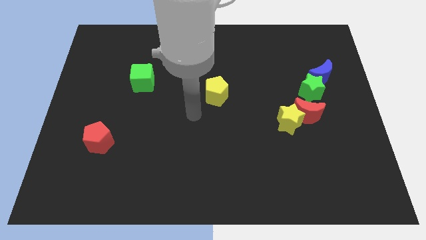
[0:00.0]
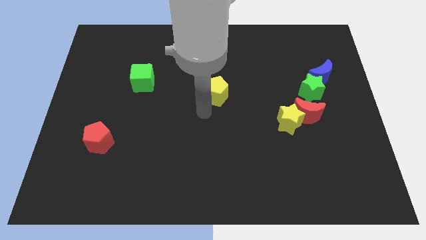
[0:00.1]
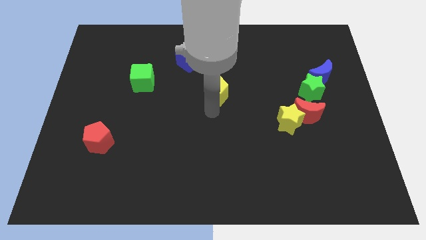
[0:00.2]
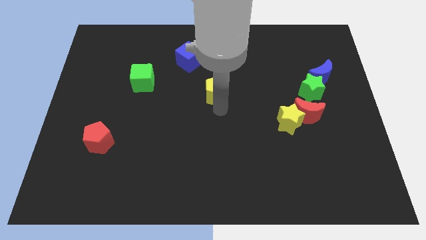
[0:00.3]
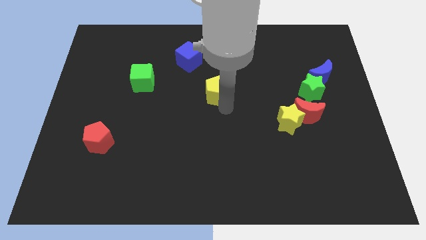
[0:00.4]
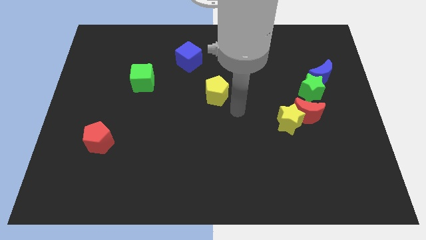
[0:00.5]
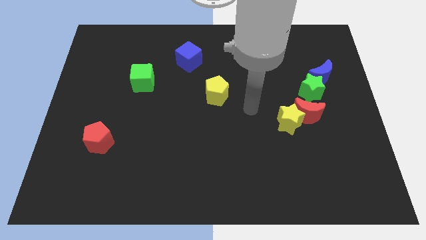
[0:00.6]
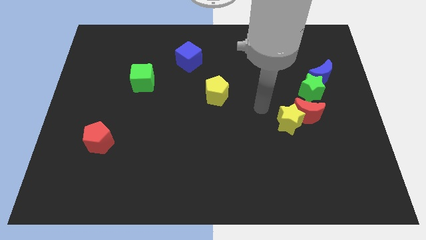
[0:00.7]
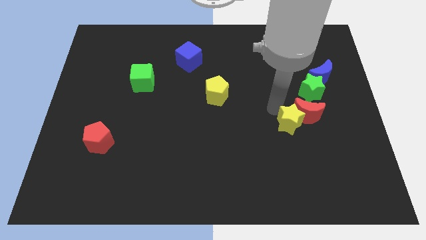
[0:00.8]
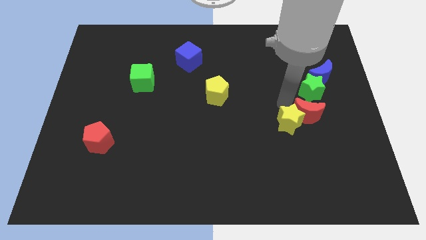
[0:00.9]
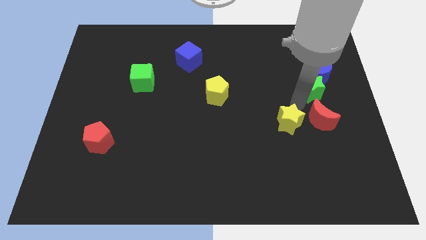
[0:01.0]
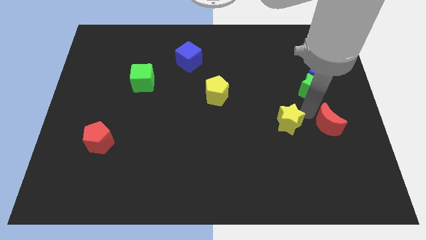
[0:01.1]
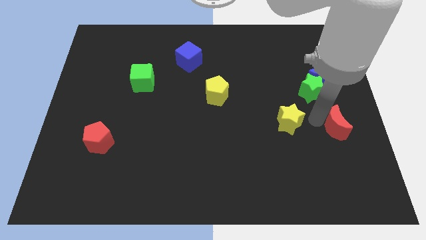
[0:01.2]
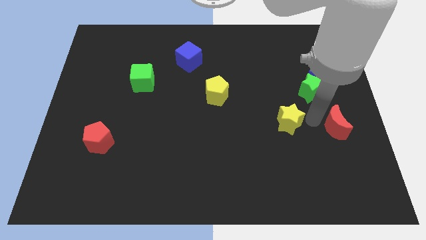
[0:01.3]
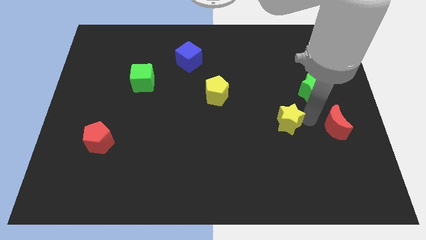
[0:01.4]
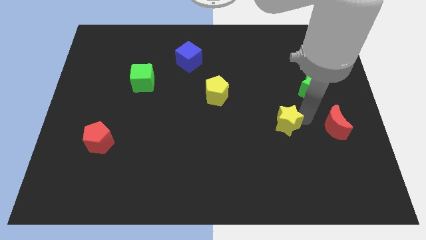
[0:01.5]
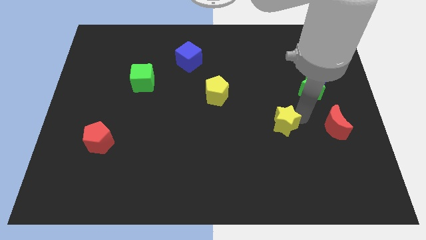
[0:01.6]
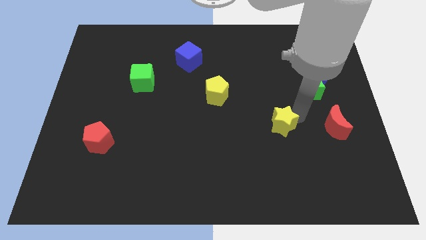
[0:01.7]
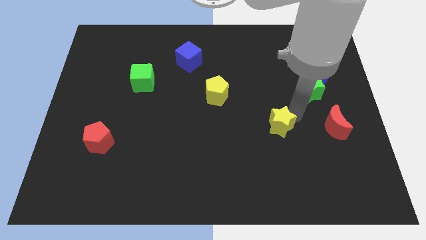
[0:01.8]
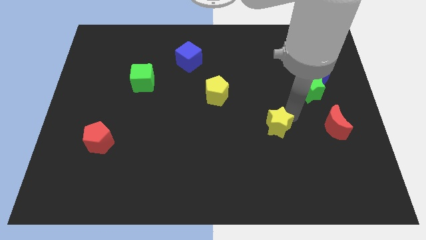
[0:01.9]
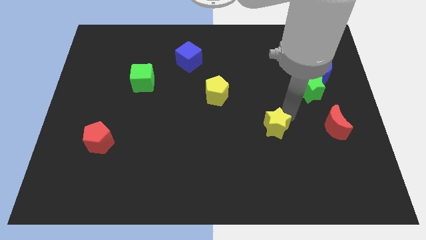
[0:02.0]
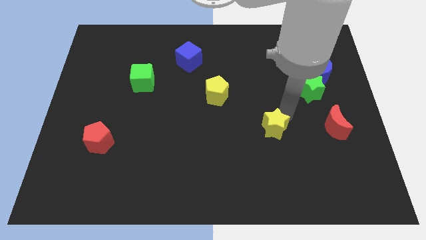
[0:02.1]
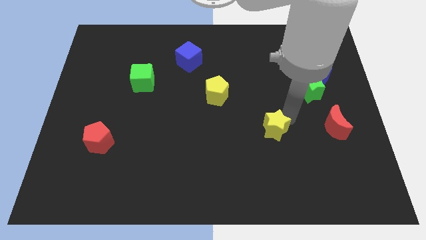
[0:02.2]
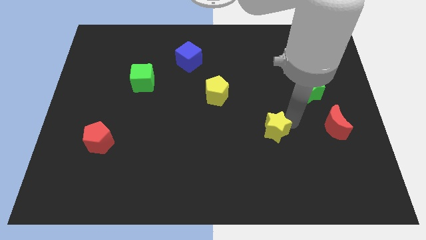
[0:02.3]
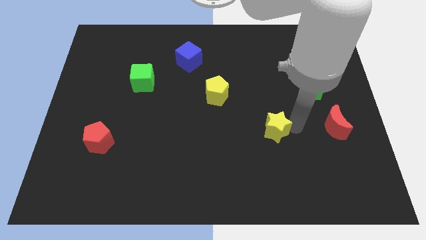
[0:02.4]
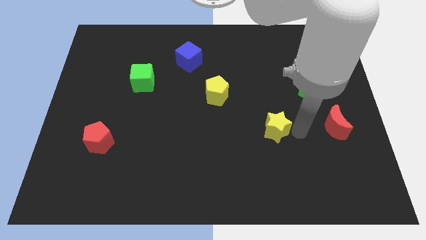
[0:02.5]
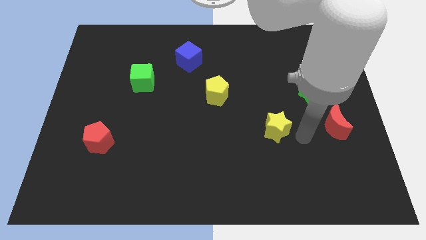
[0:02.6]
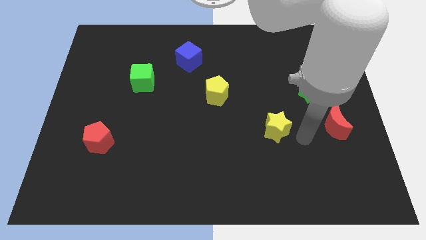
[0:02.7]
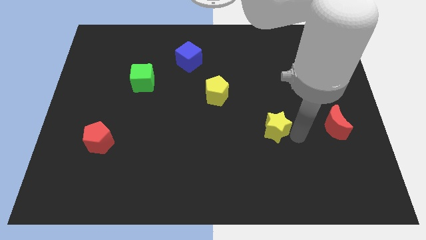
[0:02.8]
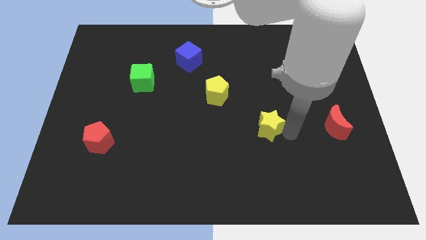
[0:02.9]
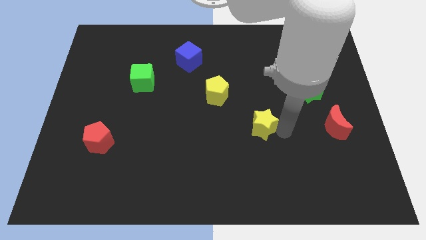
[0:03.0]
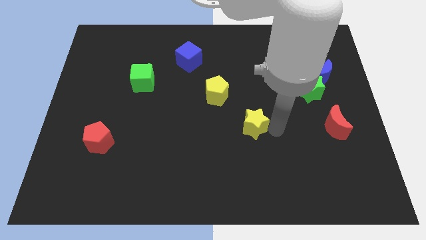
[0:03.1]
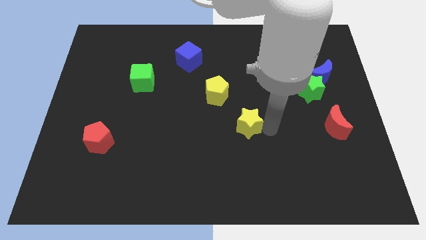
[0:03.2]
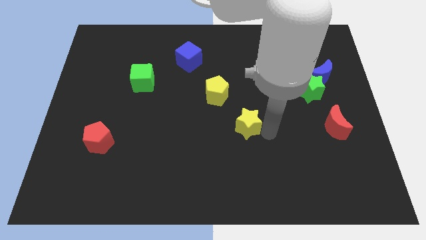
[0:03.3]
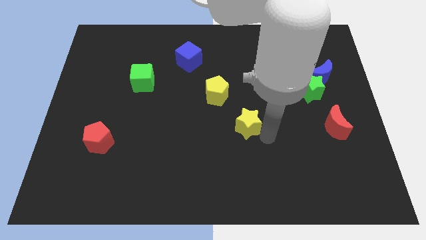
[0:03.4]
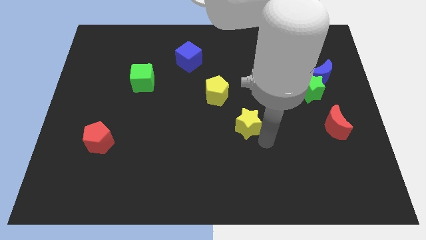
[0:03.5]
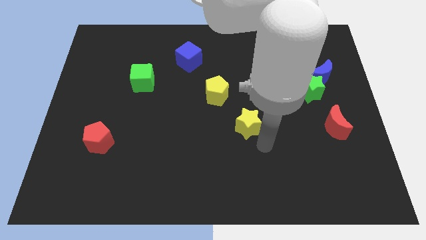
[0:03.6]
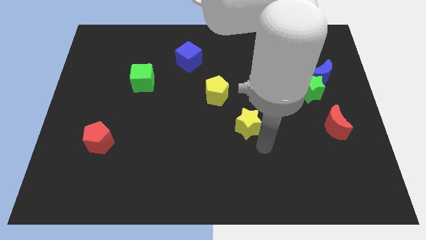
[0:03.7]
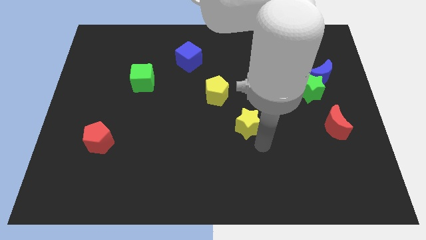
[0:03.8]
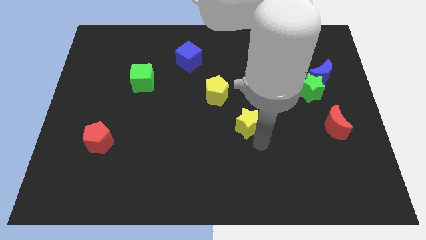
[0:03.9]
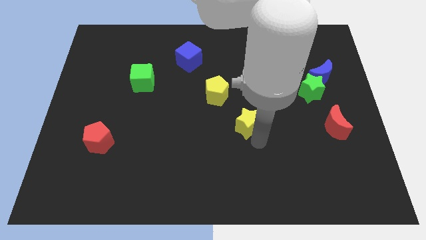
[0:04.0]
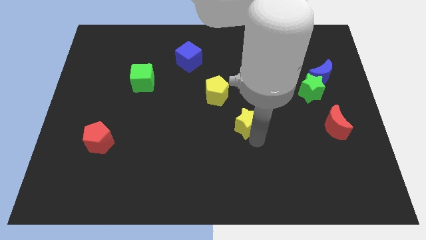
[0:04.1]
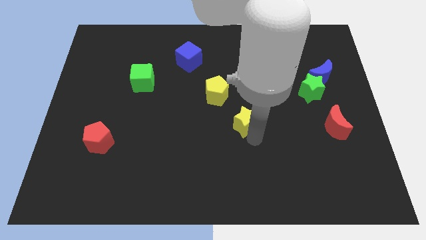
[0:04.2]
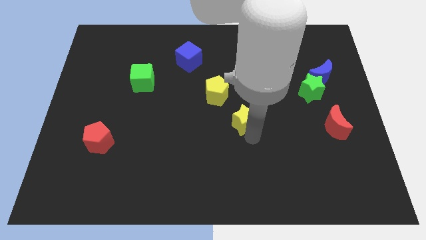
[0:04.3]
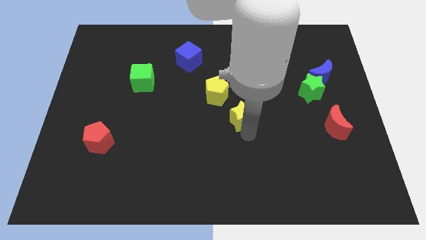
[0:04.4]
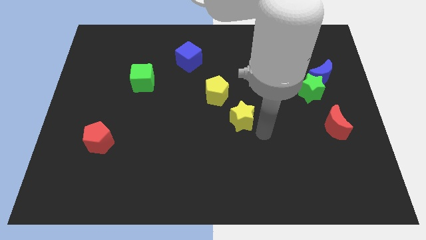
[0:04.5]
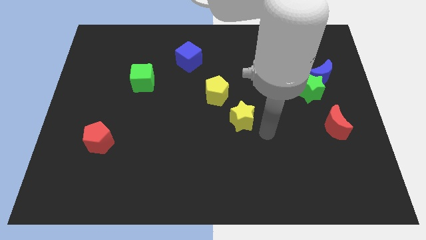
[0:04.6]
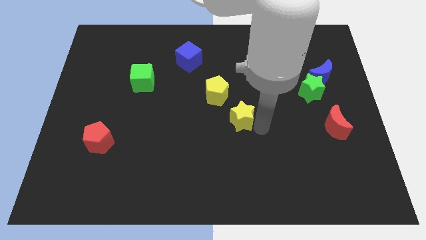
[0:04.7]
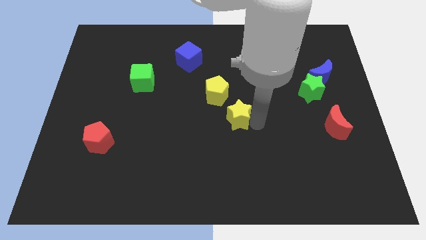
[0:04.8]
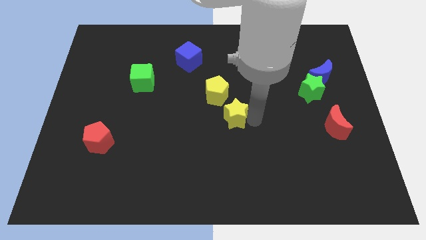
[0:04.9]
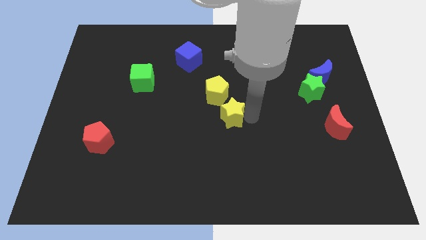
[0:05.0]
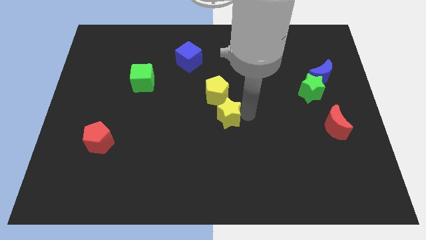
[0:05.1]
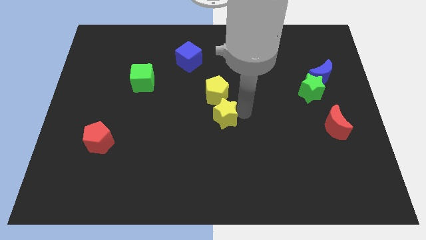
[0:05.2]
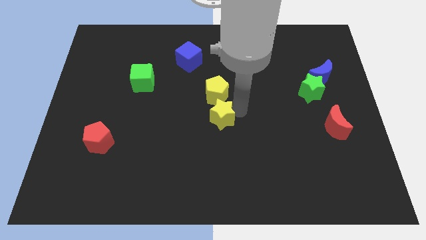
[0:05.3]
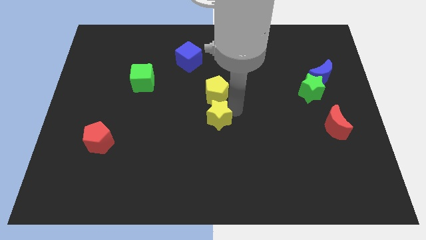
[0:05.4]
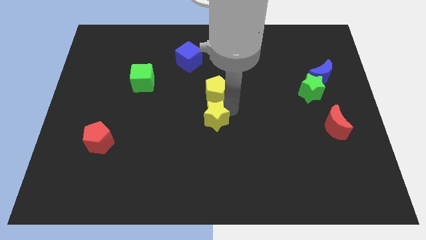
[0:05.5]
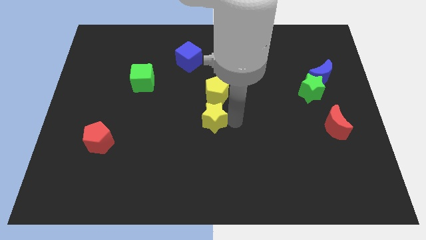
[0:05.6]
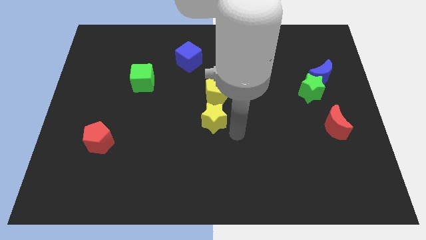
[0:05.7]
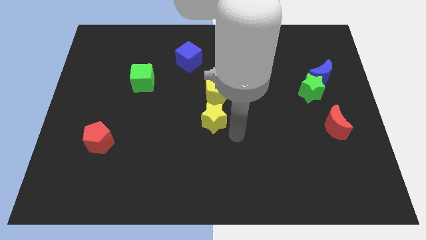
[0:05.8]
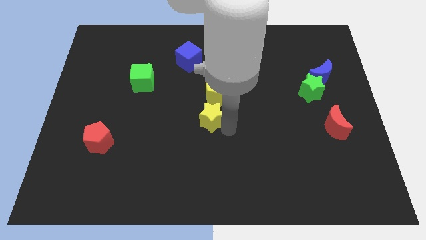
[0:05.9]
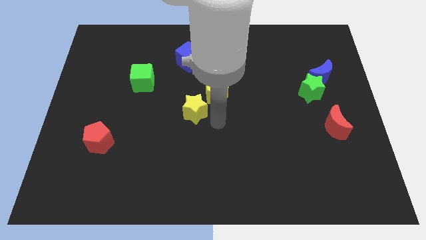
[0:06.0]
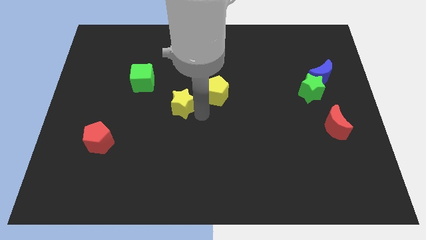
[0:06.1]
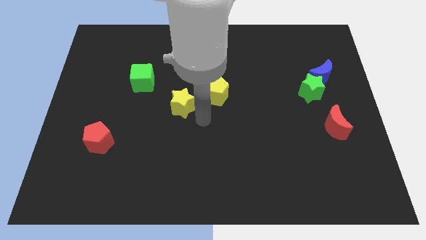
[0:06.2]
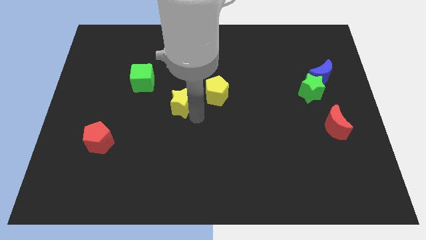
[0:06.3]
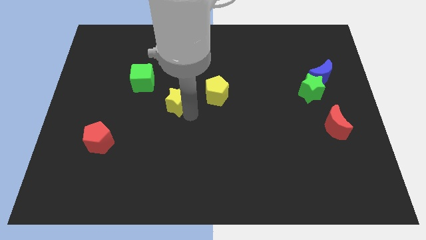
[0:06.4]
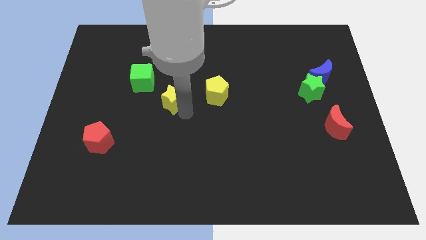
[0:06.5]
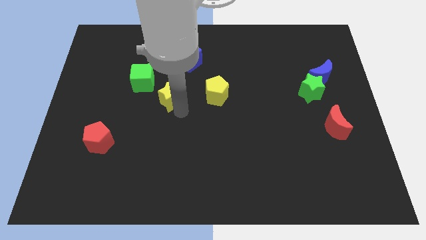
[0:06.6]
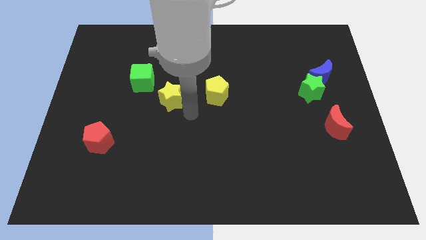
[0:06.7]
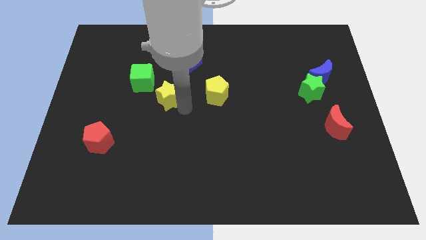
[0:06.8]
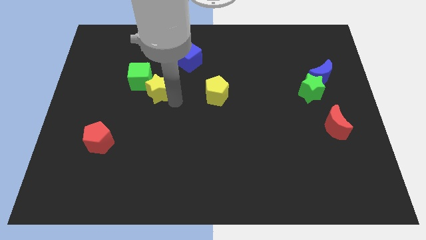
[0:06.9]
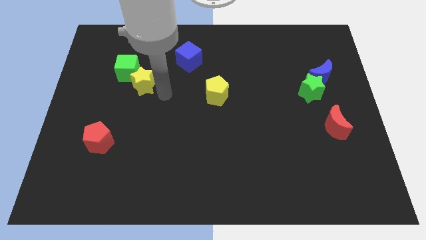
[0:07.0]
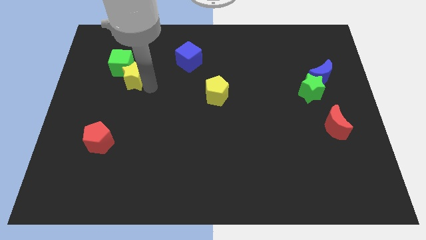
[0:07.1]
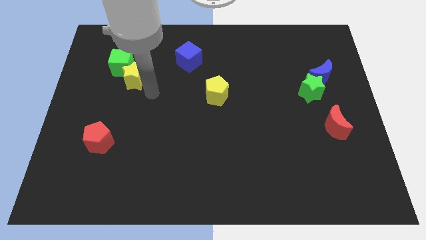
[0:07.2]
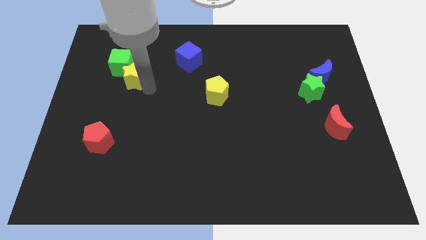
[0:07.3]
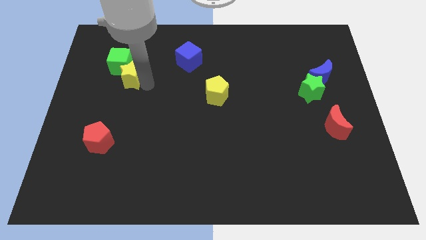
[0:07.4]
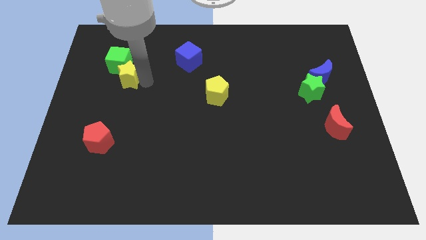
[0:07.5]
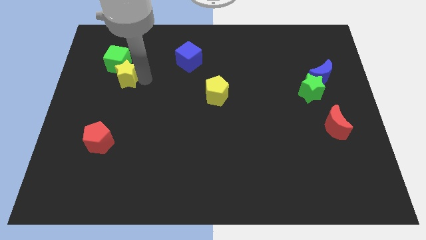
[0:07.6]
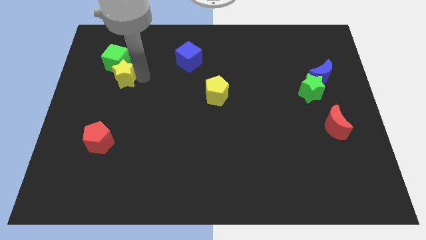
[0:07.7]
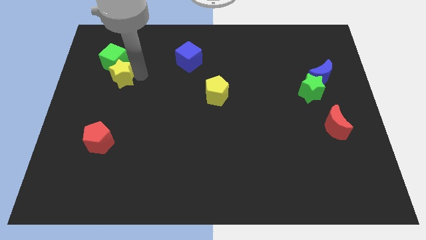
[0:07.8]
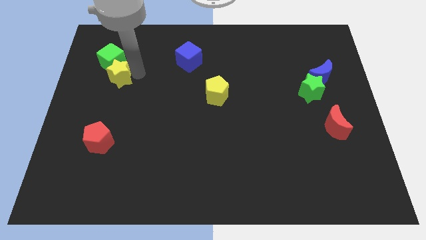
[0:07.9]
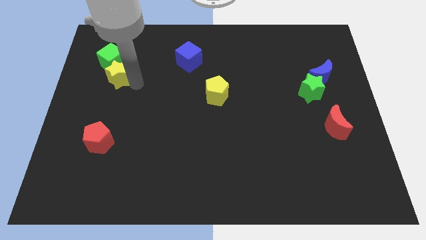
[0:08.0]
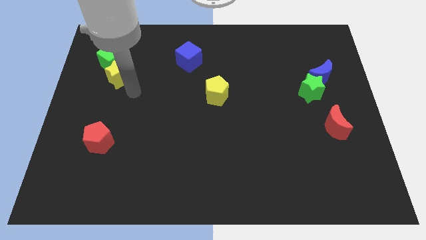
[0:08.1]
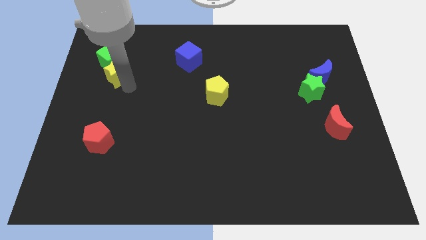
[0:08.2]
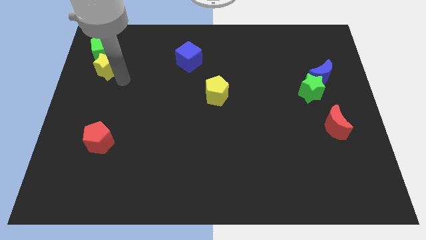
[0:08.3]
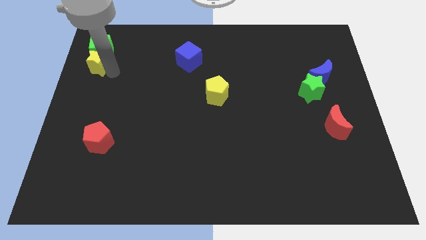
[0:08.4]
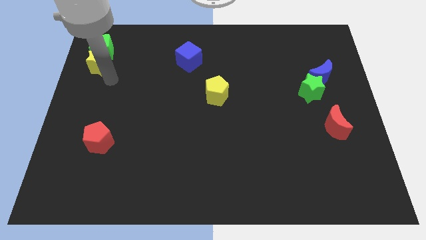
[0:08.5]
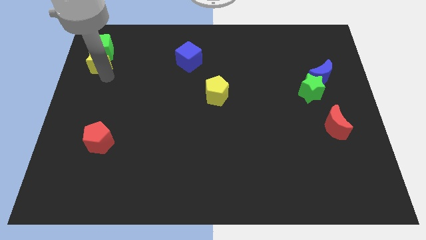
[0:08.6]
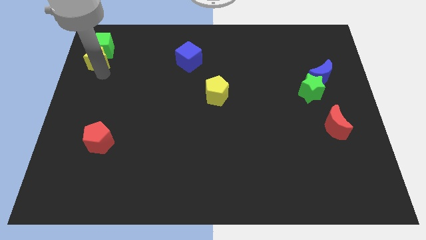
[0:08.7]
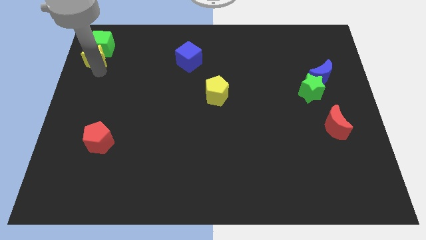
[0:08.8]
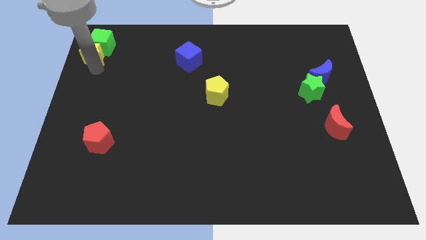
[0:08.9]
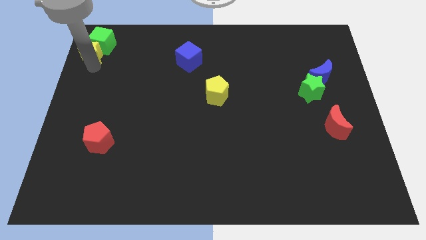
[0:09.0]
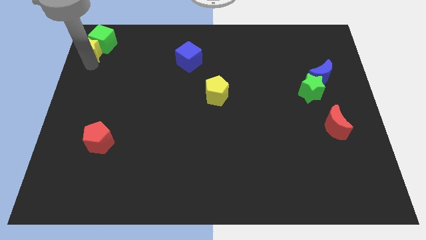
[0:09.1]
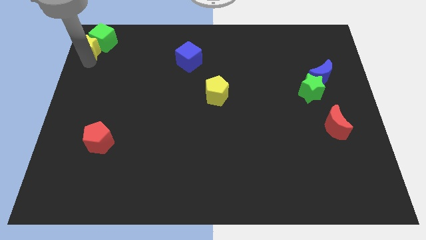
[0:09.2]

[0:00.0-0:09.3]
move the yellow star to the top left of the board
